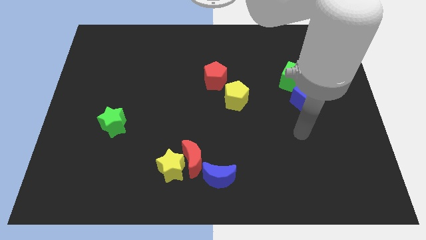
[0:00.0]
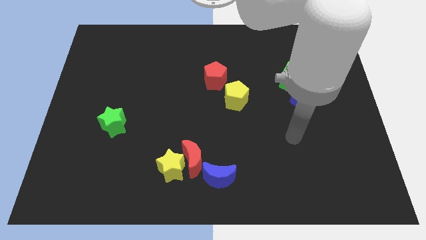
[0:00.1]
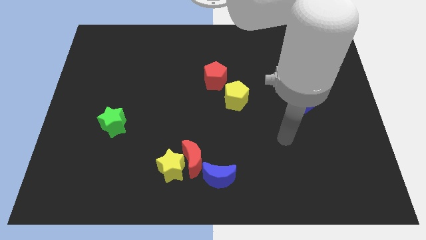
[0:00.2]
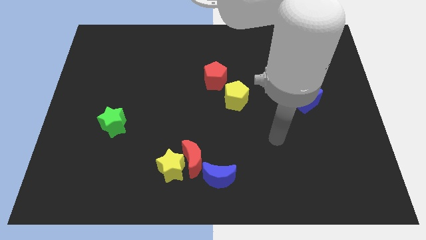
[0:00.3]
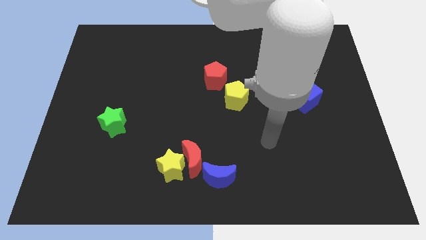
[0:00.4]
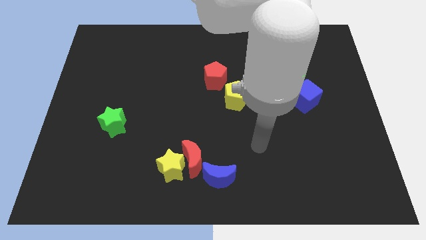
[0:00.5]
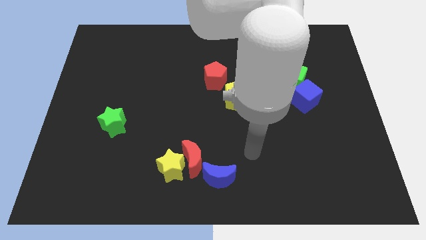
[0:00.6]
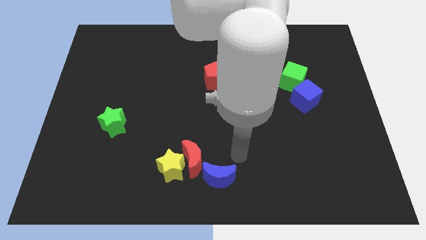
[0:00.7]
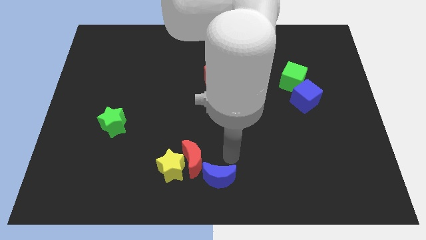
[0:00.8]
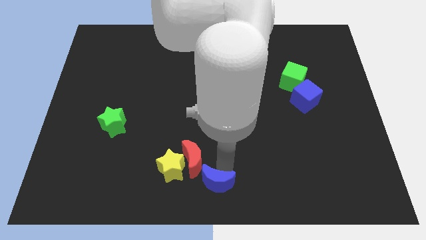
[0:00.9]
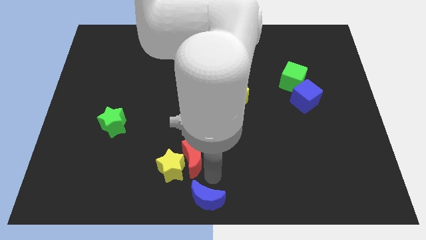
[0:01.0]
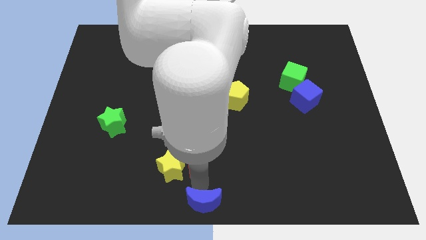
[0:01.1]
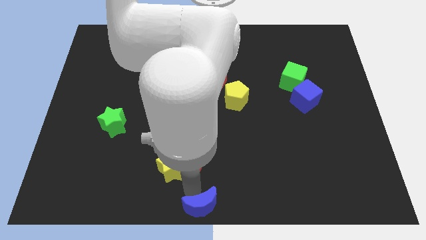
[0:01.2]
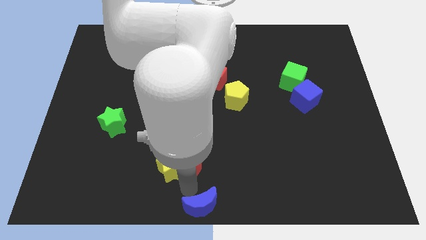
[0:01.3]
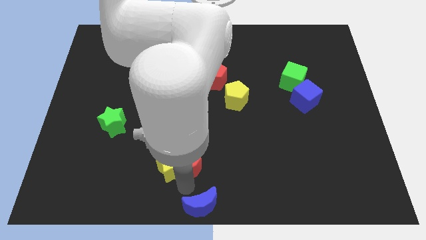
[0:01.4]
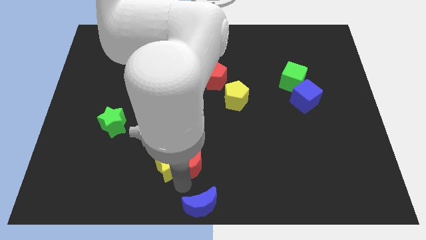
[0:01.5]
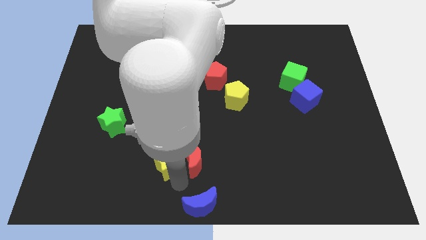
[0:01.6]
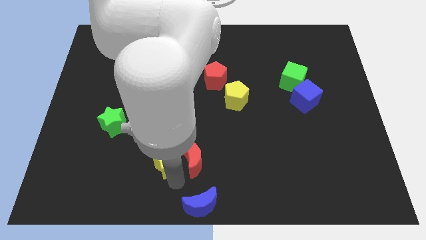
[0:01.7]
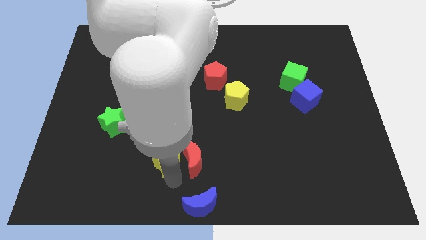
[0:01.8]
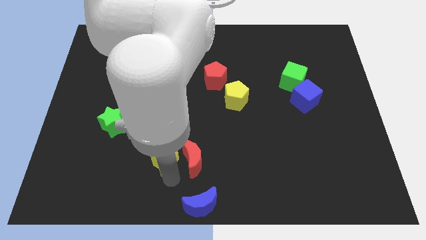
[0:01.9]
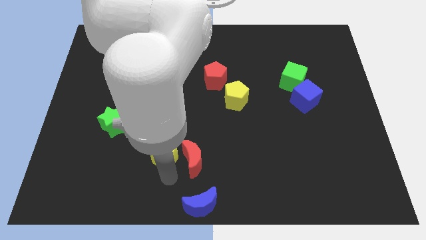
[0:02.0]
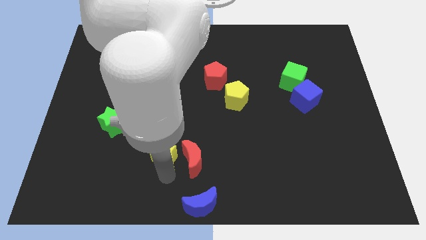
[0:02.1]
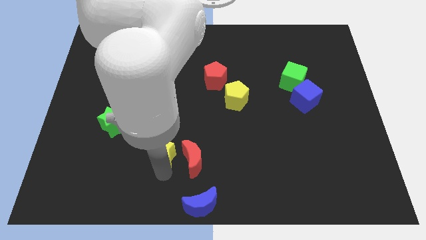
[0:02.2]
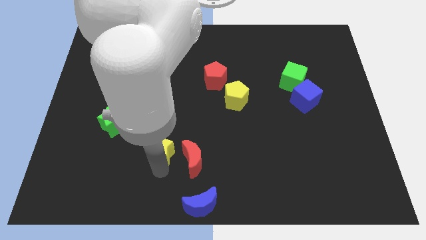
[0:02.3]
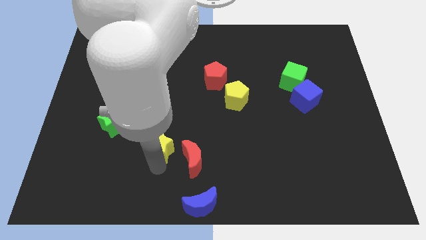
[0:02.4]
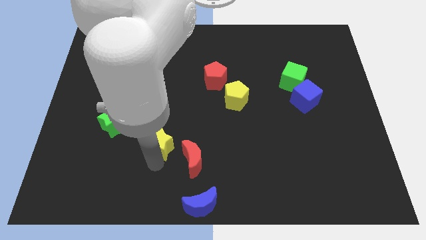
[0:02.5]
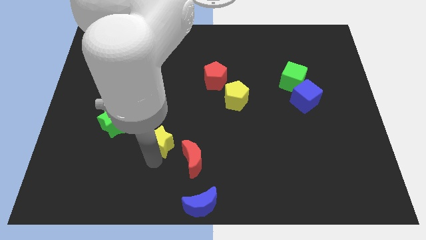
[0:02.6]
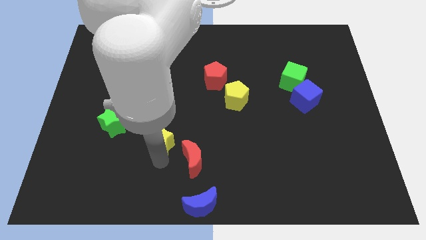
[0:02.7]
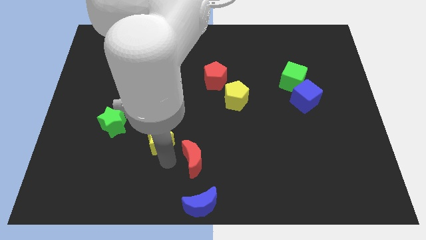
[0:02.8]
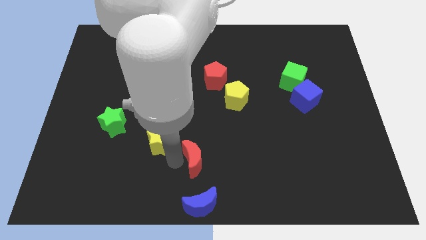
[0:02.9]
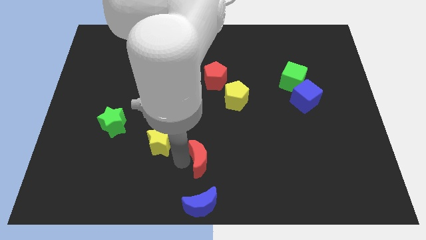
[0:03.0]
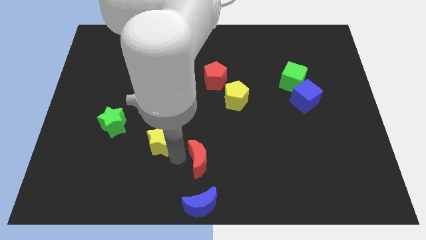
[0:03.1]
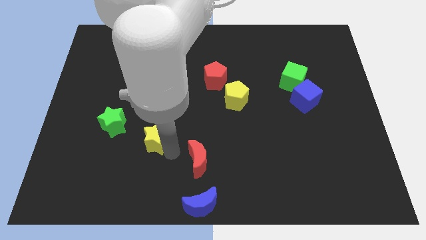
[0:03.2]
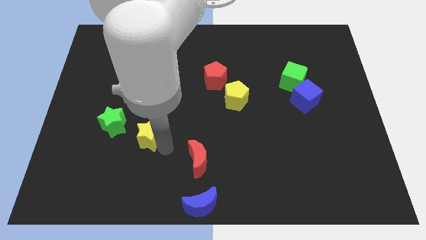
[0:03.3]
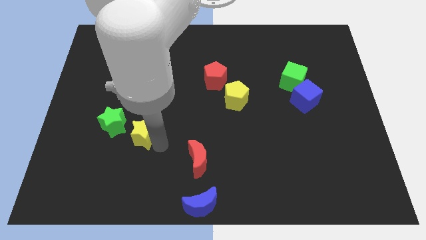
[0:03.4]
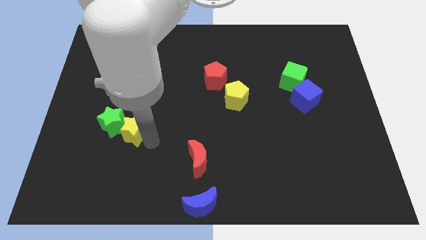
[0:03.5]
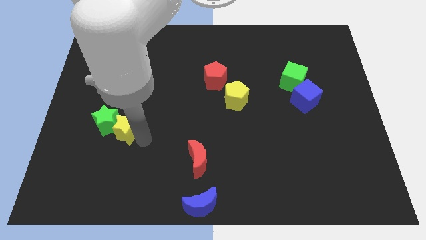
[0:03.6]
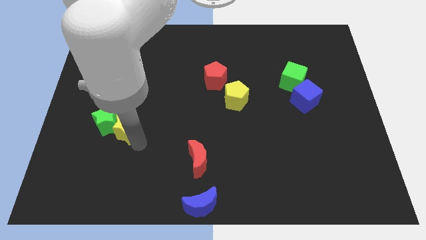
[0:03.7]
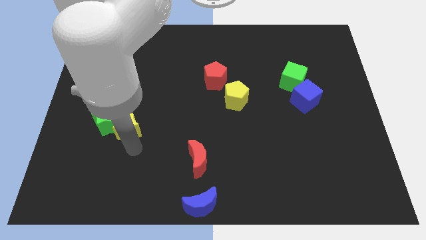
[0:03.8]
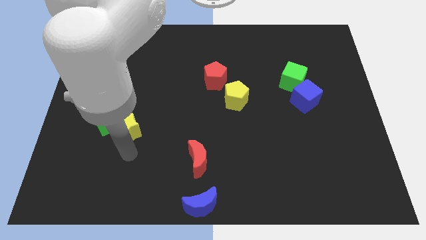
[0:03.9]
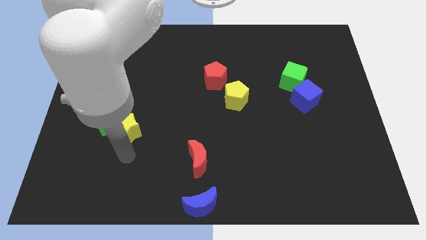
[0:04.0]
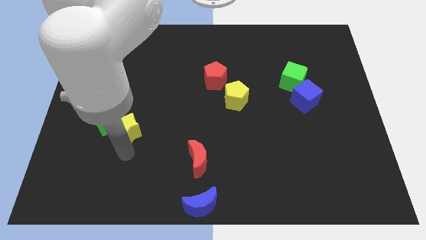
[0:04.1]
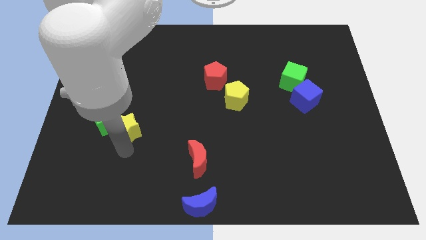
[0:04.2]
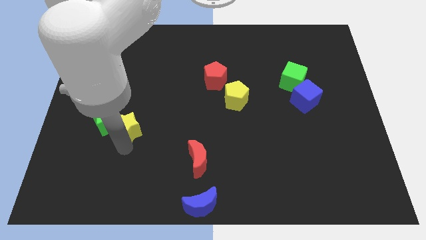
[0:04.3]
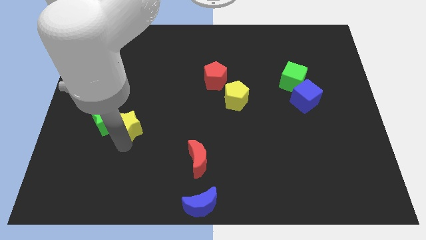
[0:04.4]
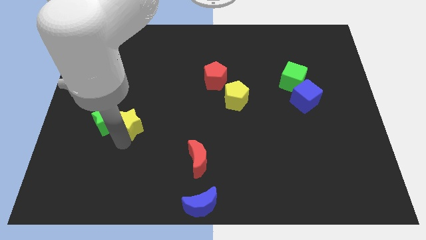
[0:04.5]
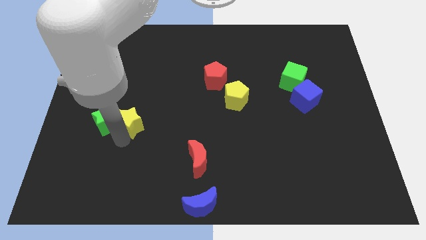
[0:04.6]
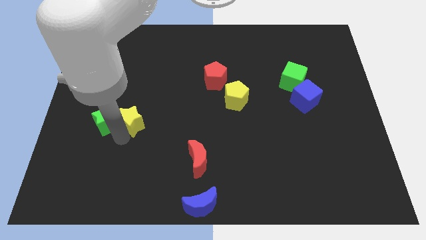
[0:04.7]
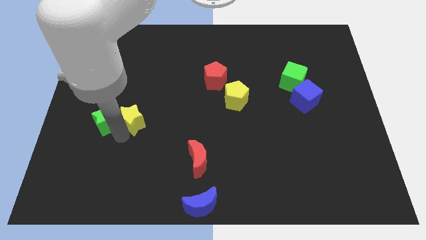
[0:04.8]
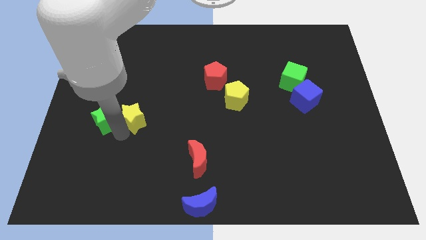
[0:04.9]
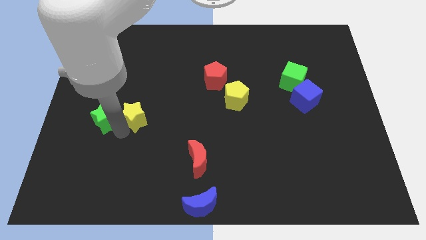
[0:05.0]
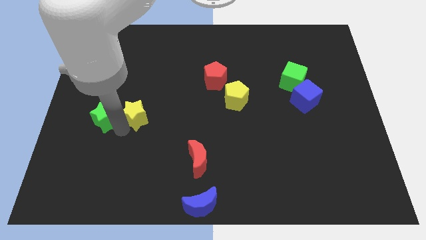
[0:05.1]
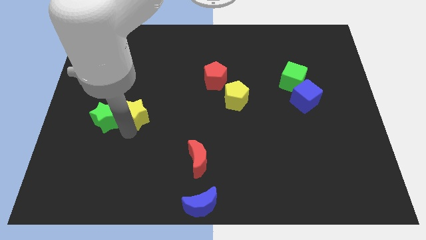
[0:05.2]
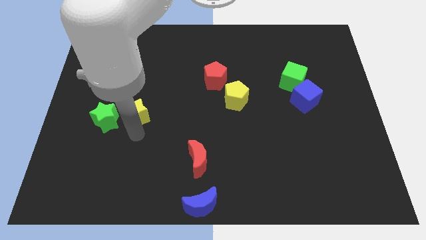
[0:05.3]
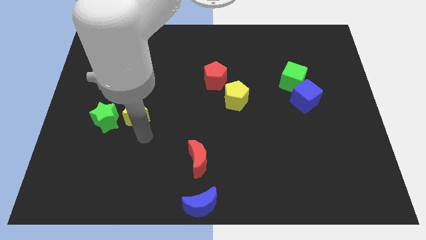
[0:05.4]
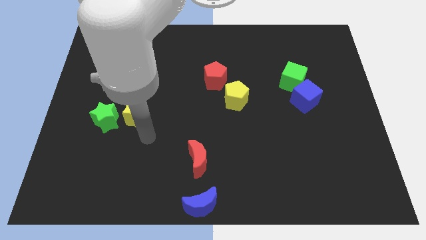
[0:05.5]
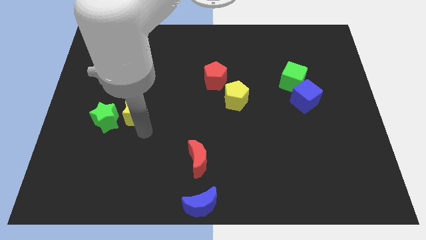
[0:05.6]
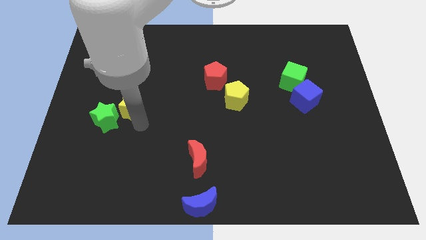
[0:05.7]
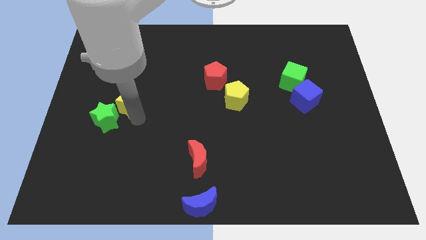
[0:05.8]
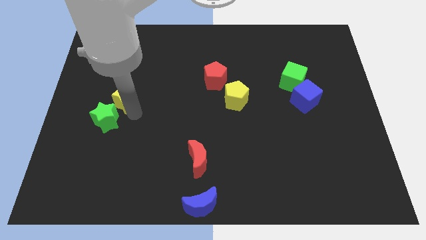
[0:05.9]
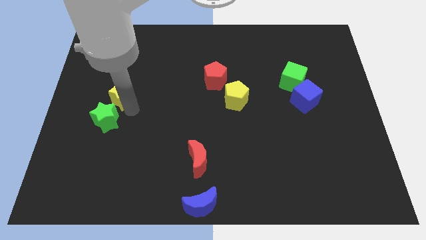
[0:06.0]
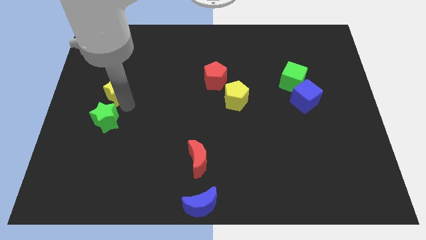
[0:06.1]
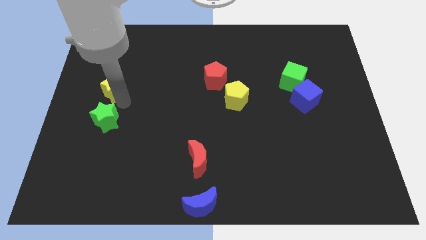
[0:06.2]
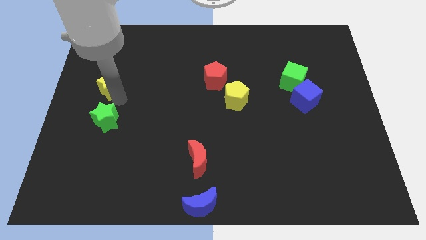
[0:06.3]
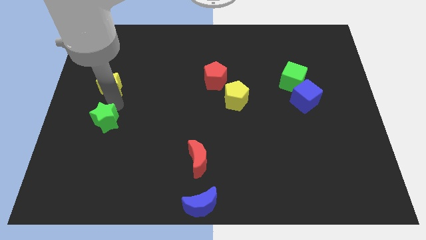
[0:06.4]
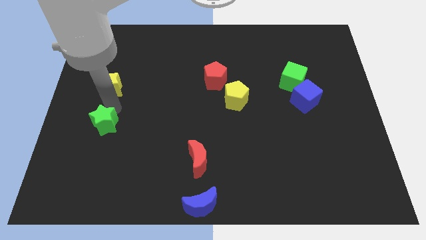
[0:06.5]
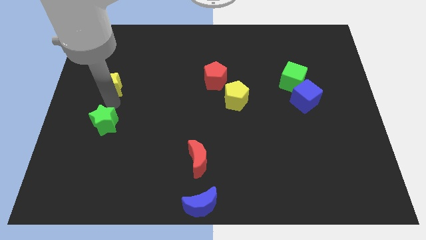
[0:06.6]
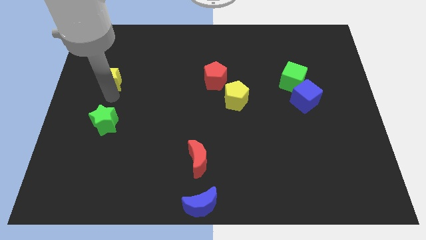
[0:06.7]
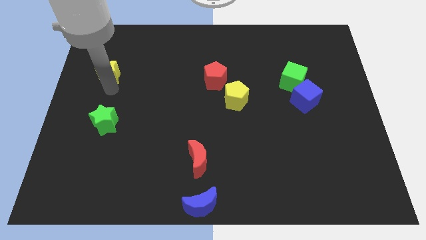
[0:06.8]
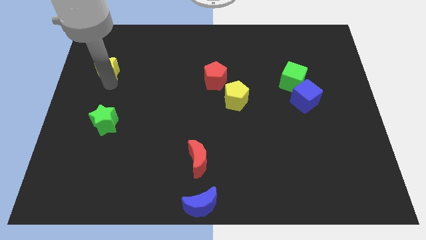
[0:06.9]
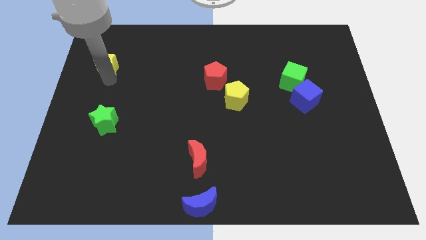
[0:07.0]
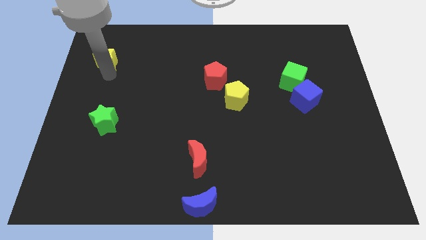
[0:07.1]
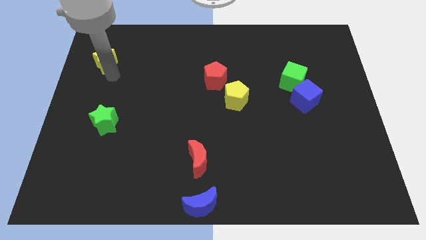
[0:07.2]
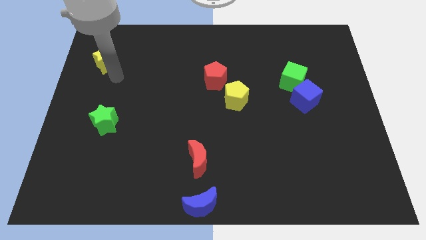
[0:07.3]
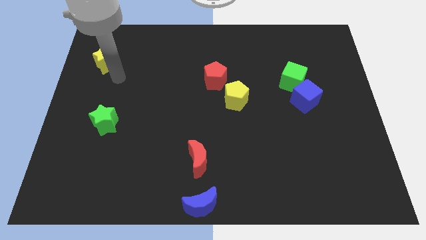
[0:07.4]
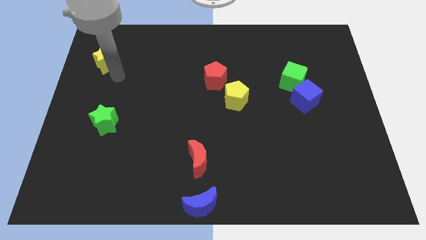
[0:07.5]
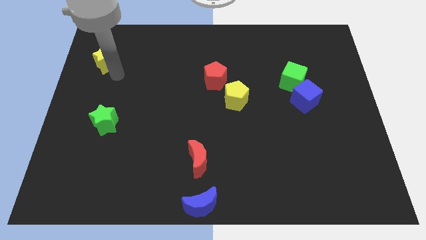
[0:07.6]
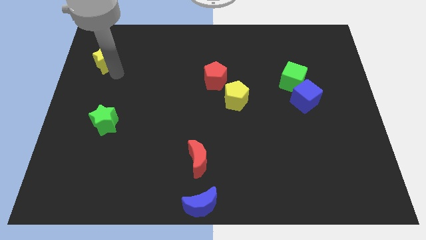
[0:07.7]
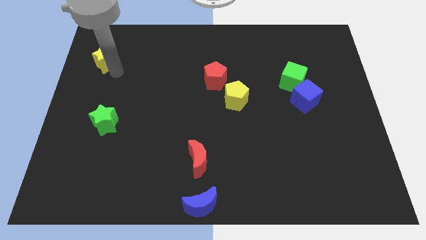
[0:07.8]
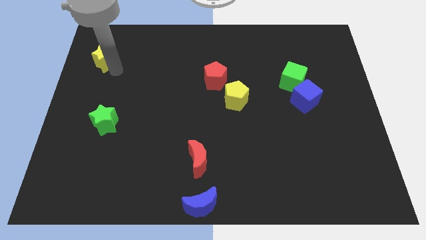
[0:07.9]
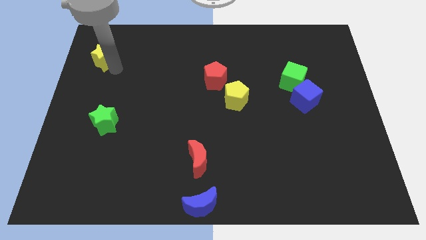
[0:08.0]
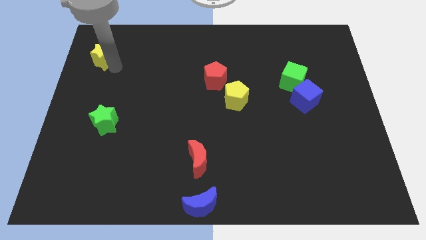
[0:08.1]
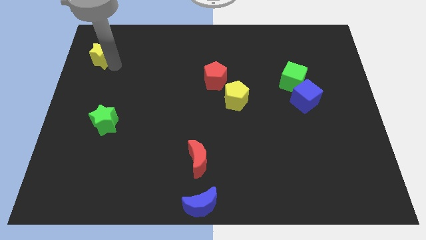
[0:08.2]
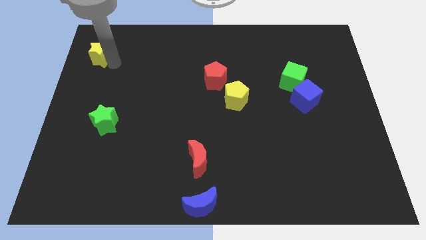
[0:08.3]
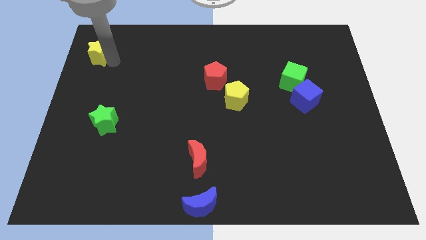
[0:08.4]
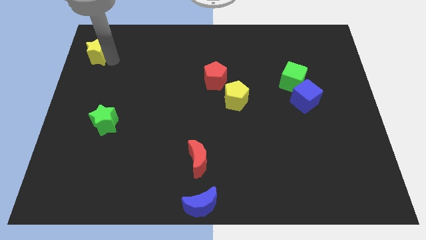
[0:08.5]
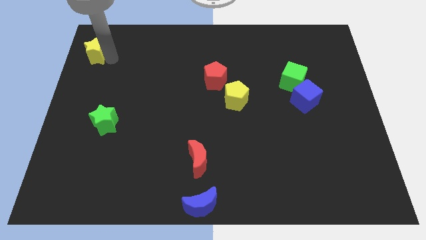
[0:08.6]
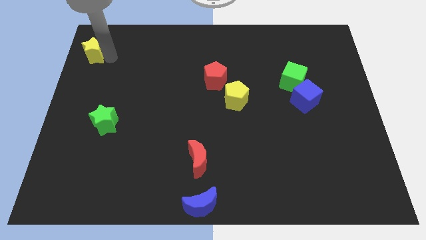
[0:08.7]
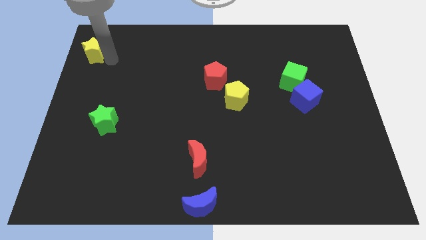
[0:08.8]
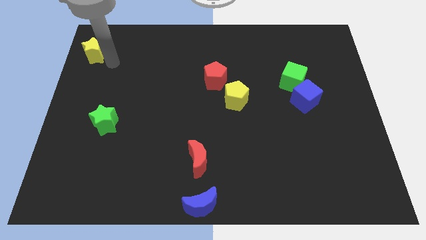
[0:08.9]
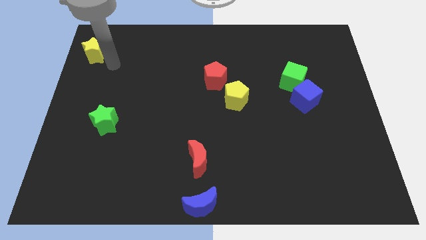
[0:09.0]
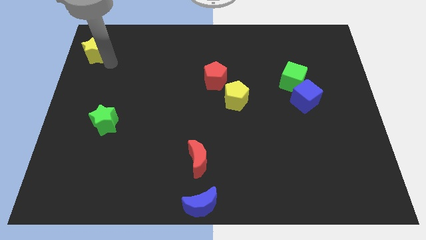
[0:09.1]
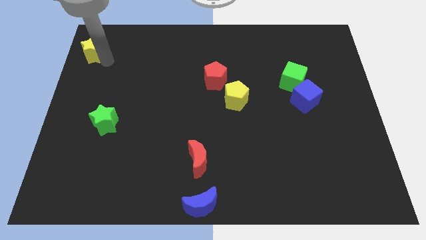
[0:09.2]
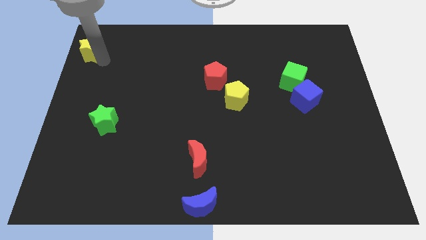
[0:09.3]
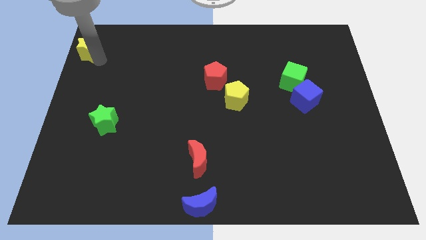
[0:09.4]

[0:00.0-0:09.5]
slide the yellow star to the upper left corner
